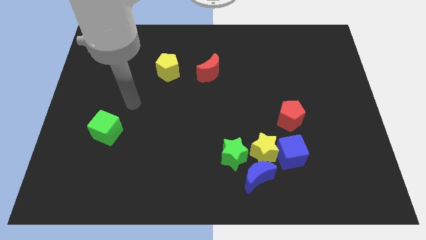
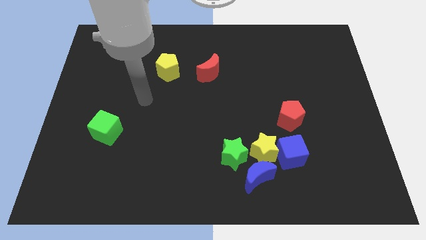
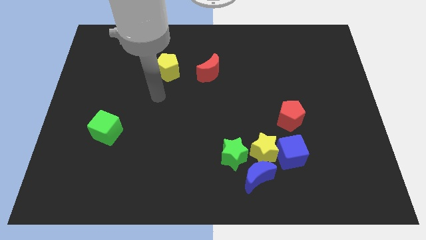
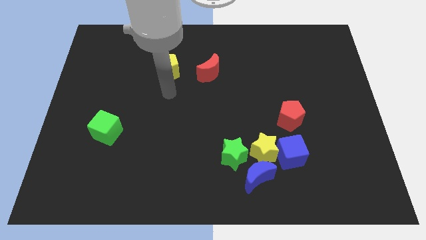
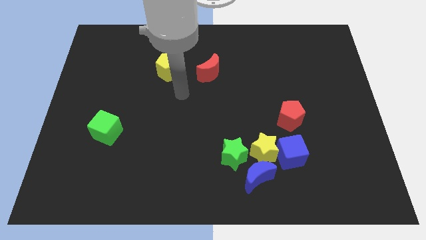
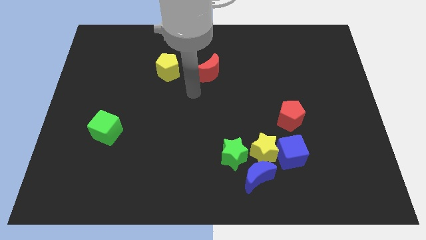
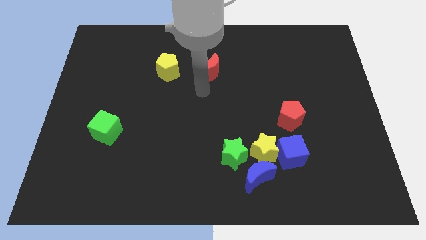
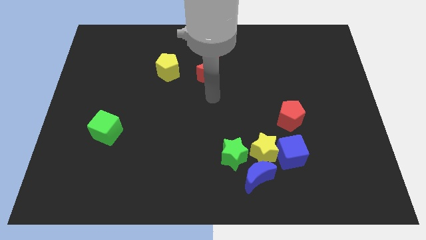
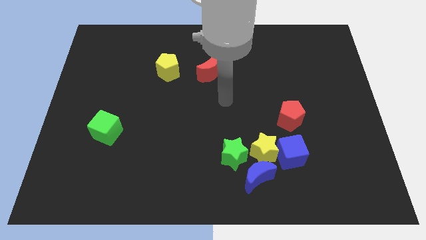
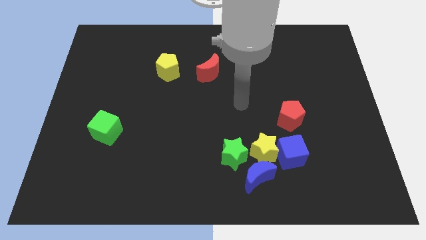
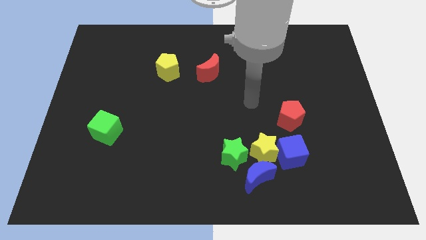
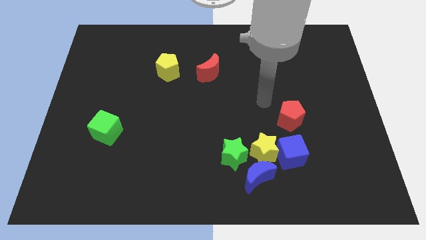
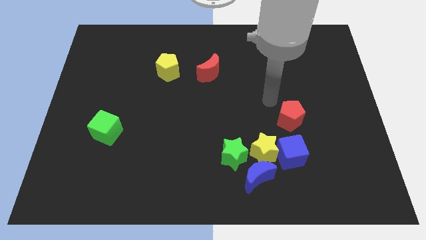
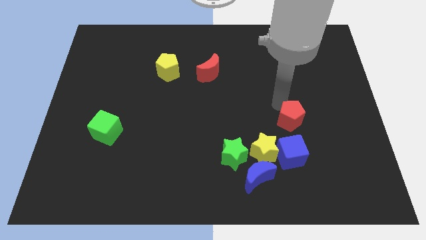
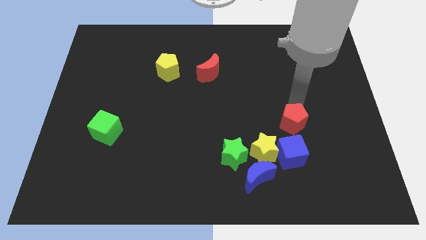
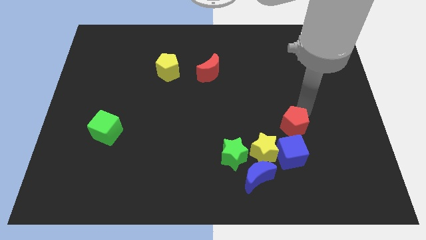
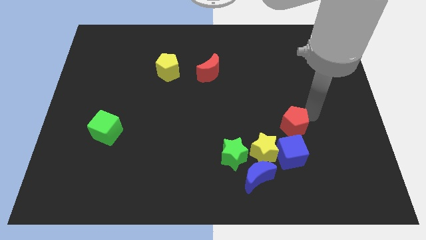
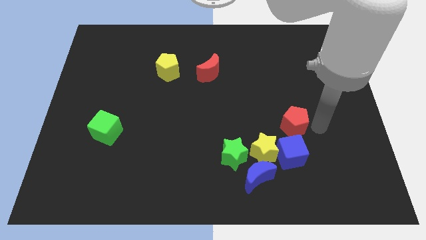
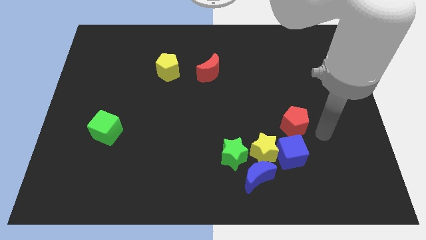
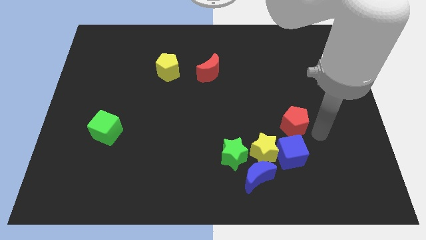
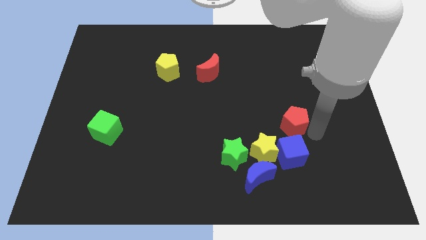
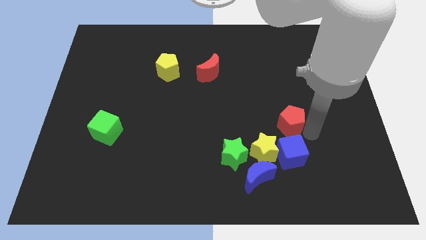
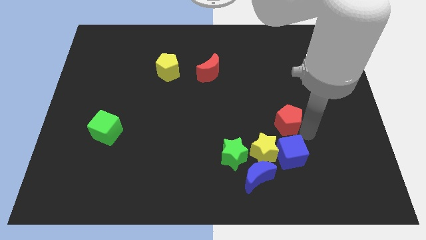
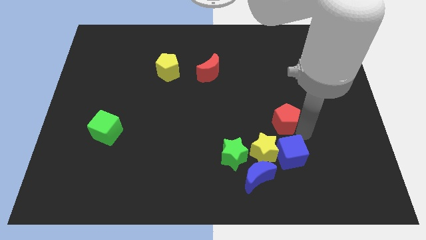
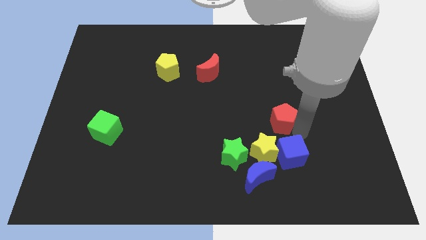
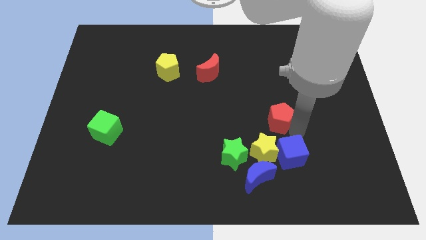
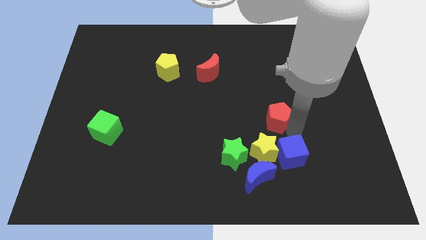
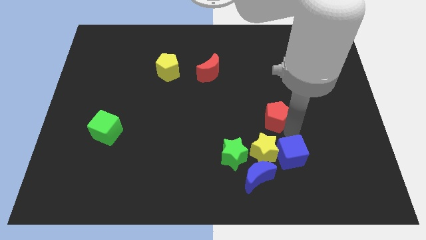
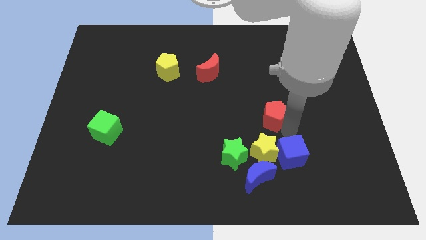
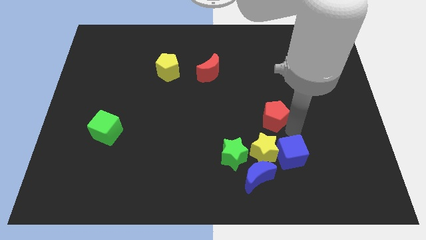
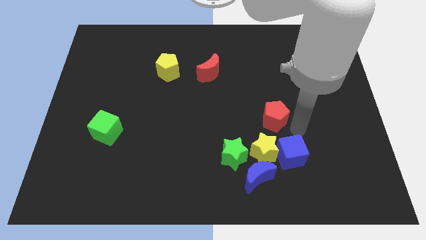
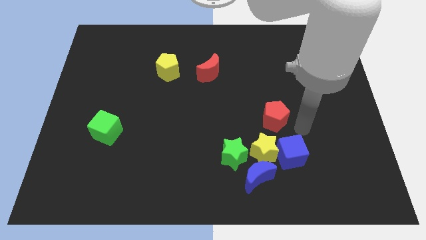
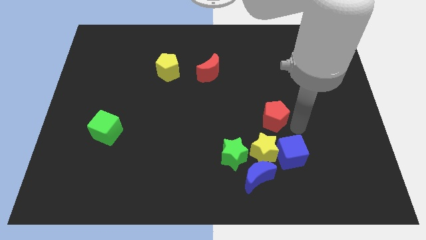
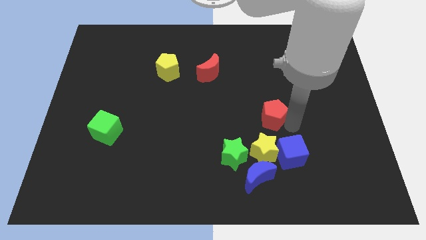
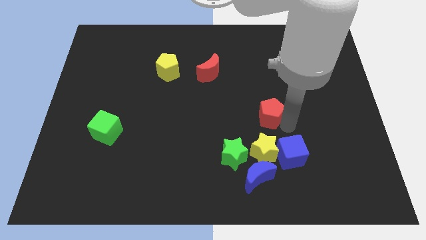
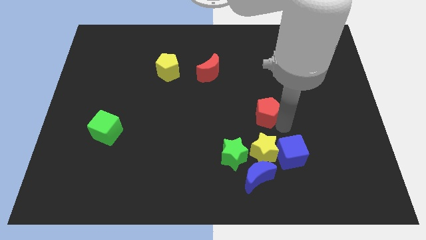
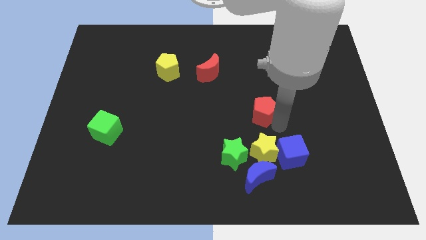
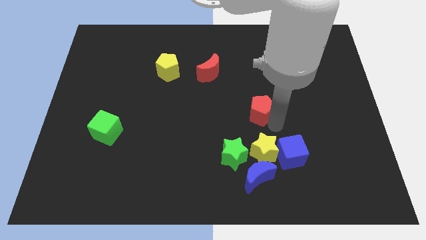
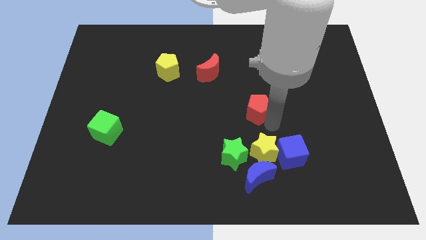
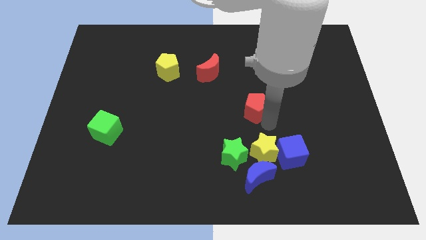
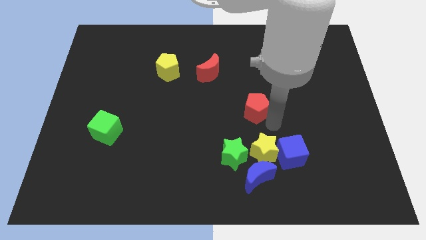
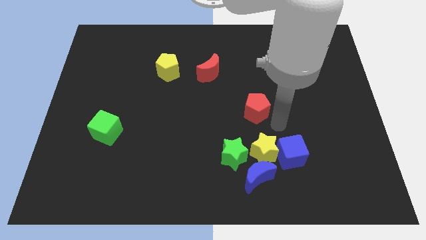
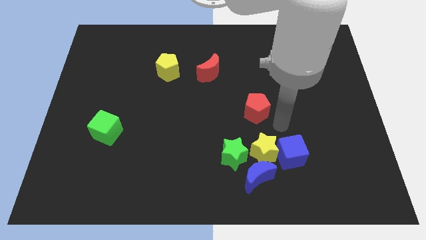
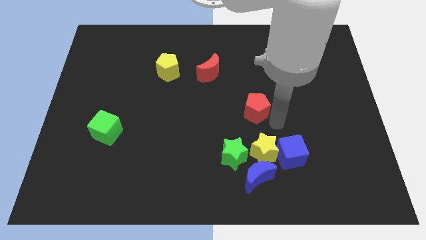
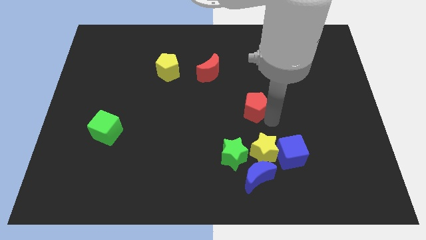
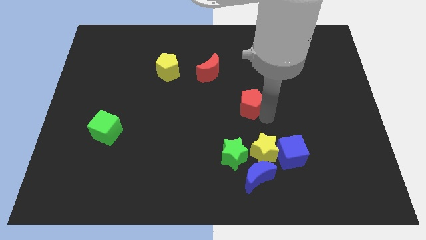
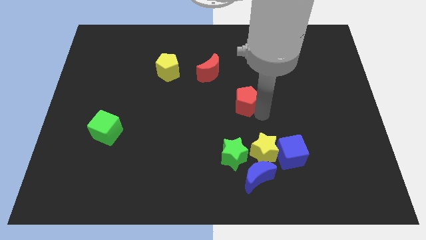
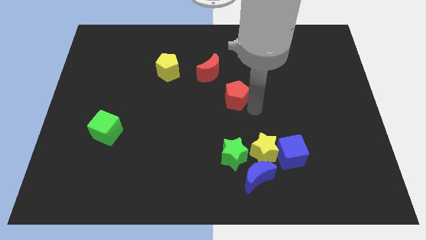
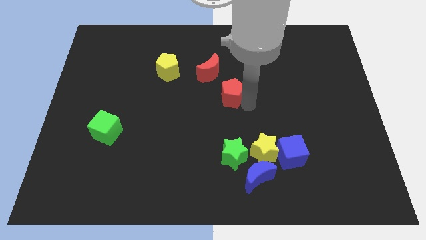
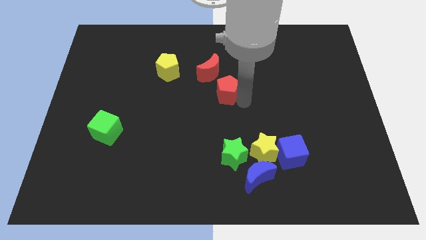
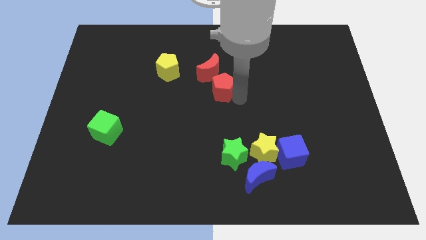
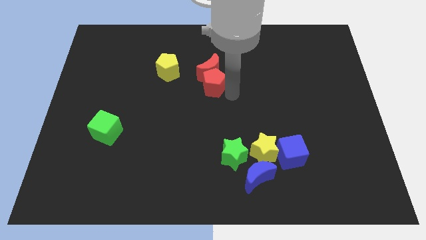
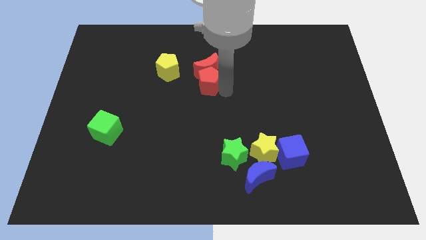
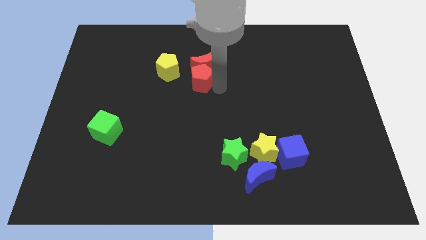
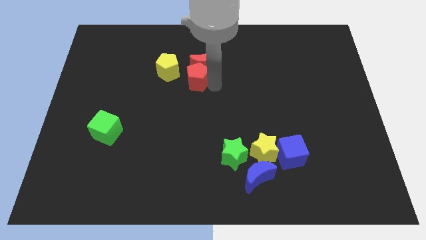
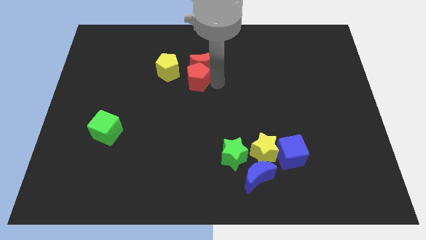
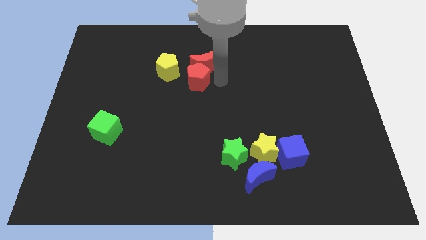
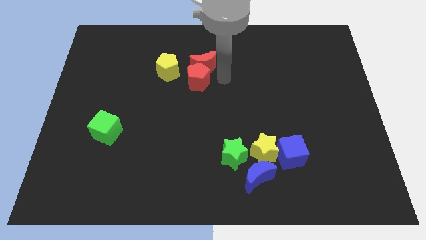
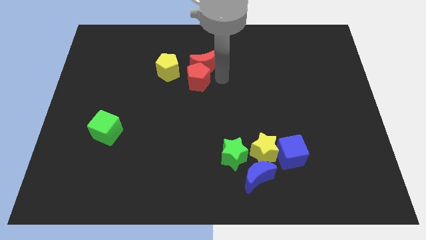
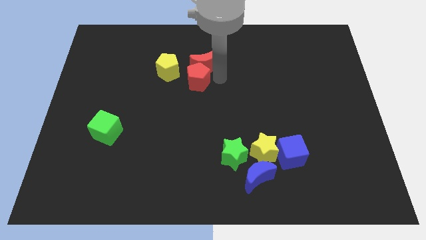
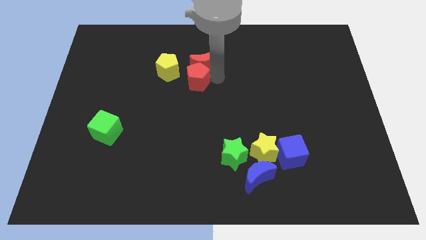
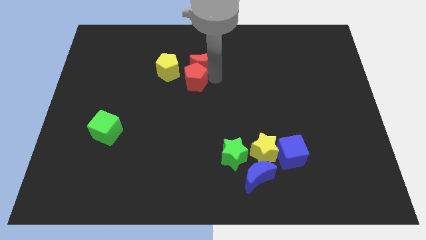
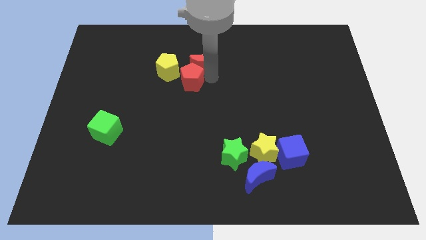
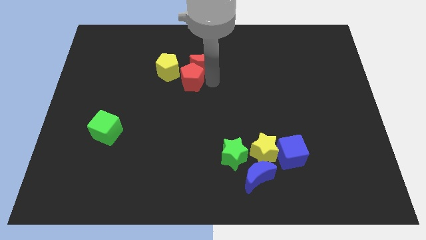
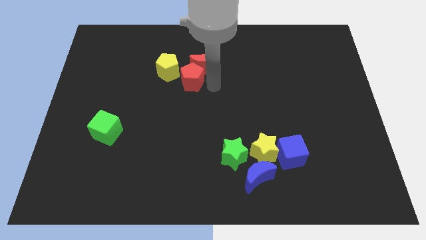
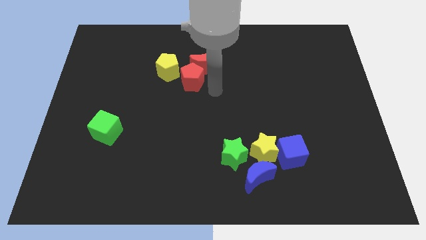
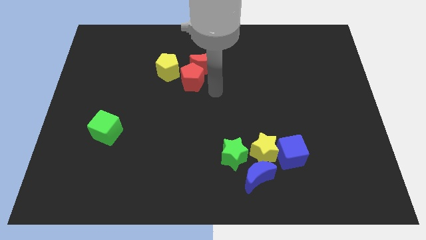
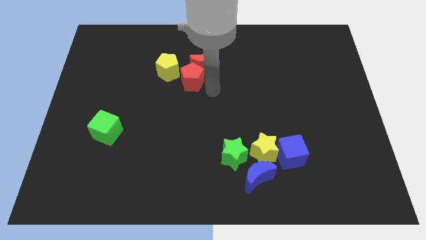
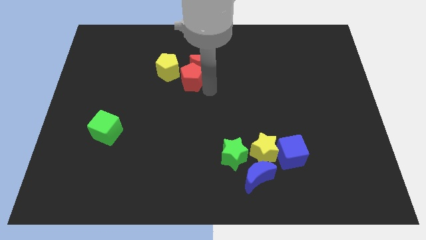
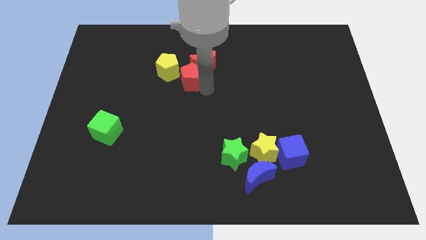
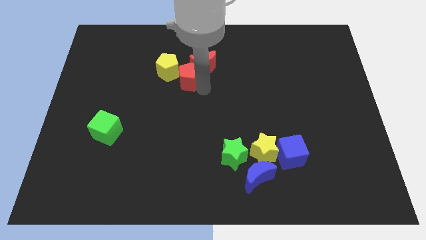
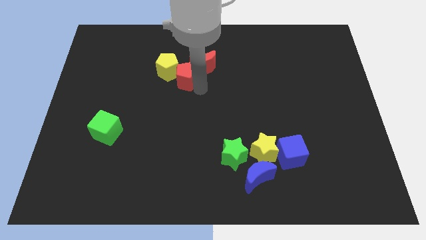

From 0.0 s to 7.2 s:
slide the red pentagon to the yellow pentagon

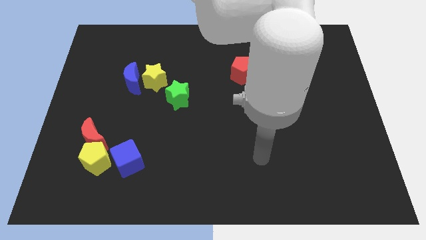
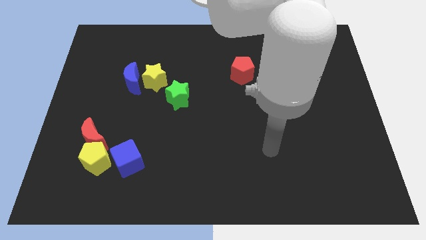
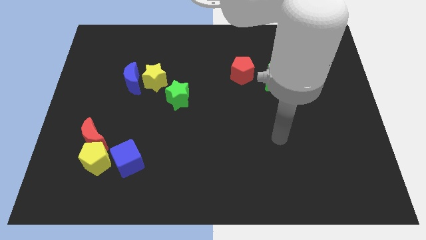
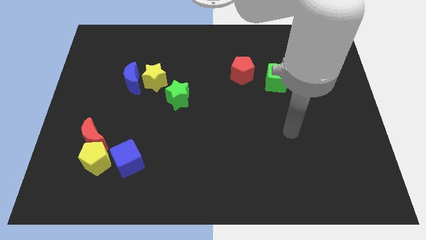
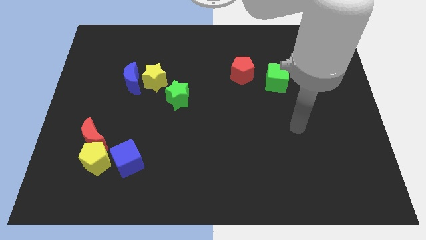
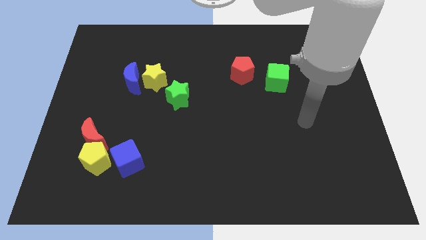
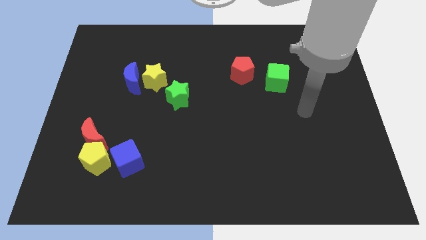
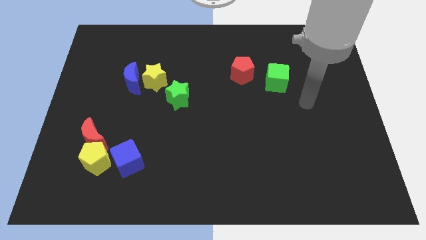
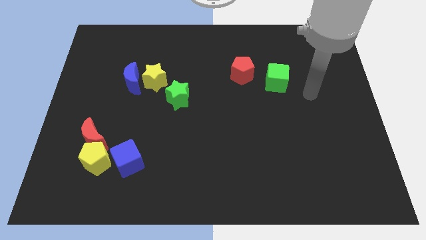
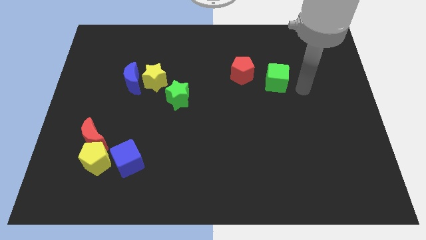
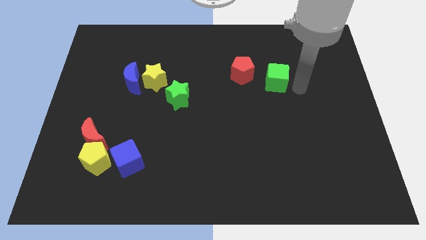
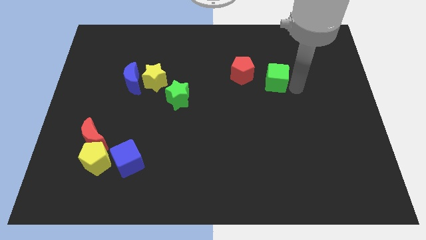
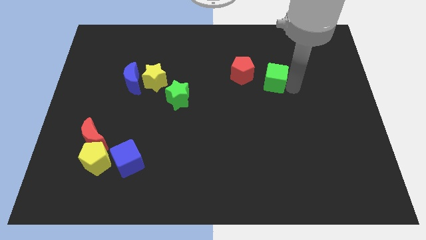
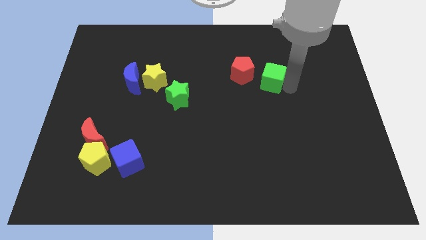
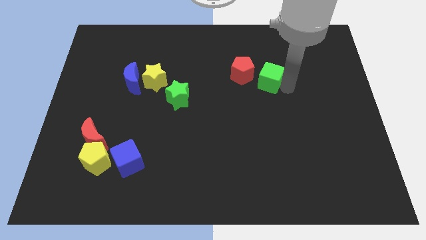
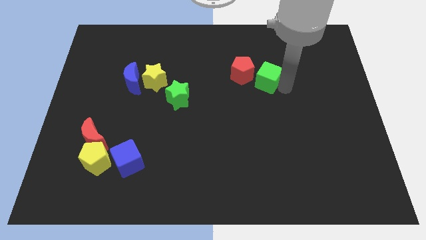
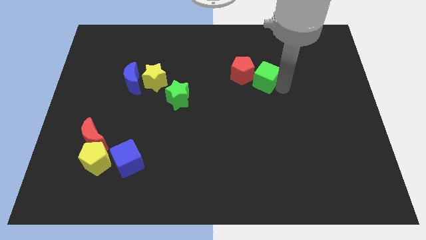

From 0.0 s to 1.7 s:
push the green cube close to the red pentagon
